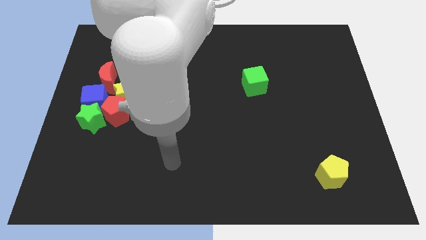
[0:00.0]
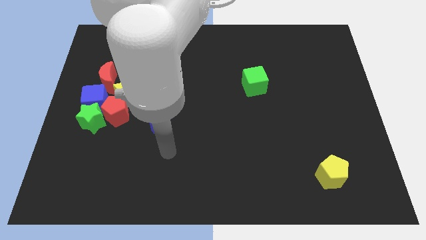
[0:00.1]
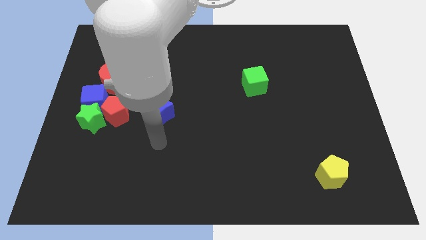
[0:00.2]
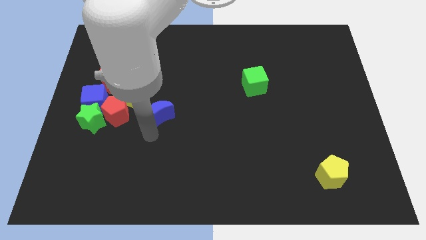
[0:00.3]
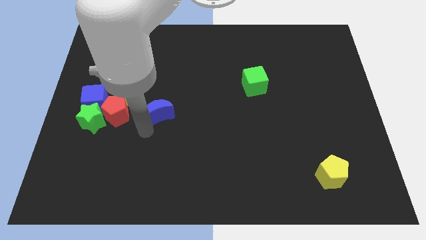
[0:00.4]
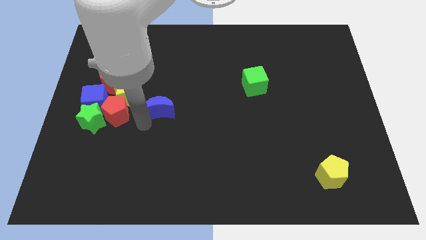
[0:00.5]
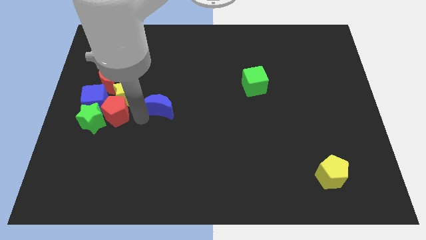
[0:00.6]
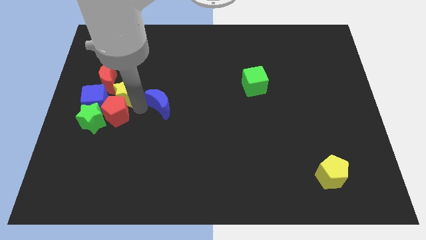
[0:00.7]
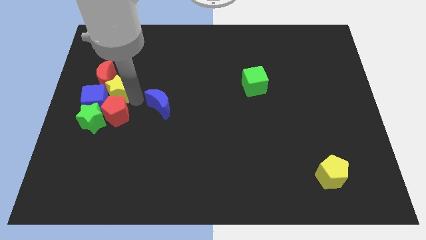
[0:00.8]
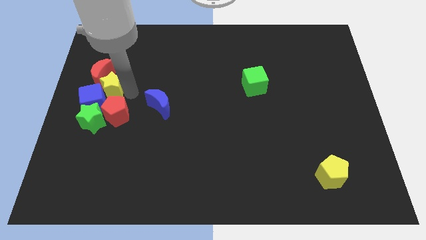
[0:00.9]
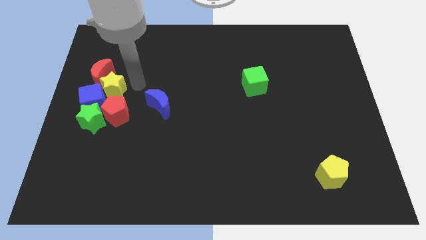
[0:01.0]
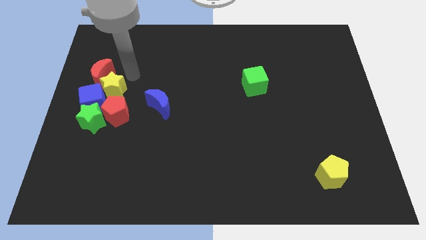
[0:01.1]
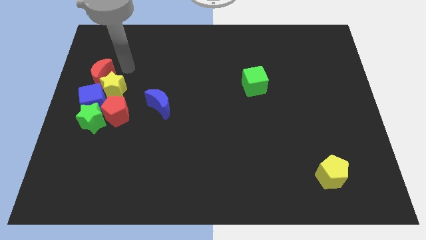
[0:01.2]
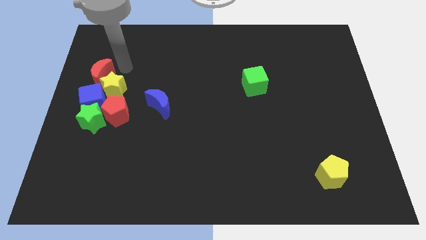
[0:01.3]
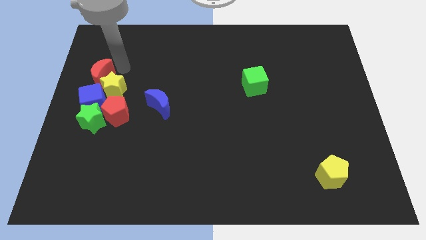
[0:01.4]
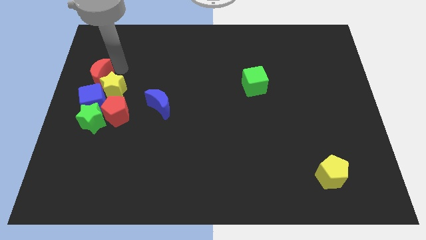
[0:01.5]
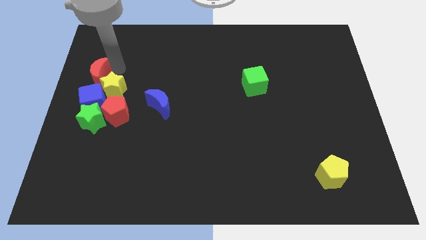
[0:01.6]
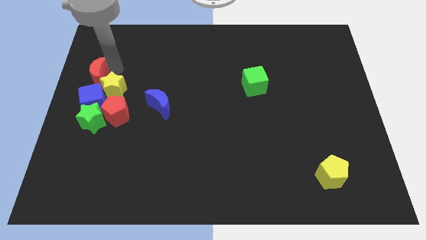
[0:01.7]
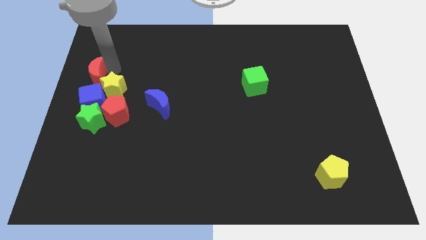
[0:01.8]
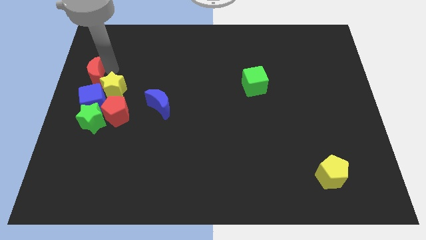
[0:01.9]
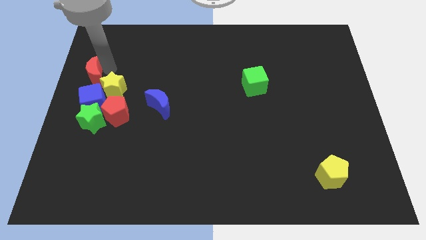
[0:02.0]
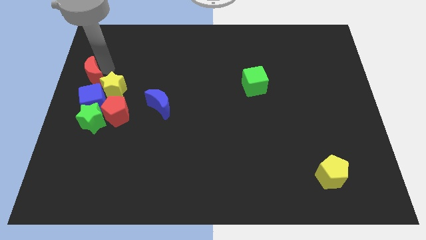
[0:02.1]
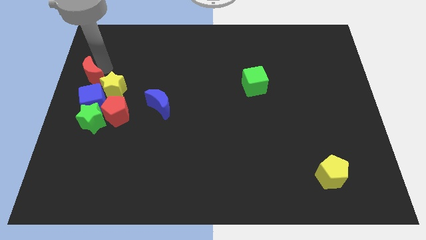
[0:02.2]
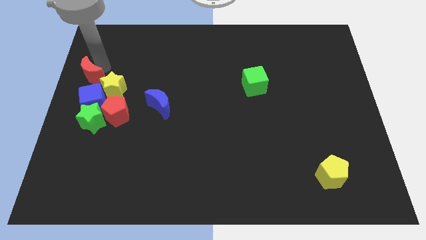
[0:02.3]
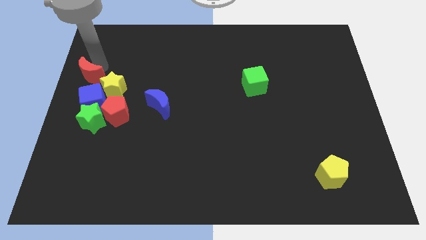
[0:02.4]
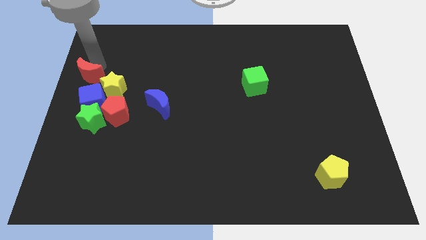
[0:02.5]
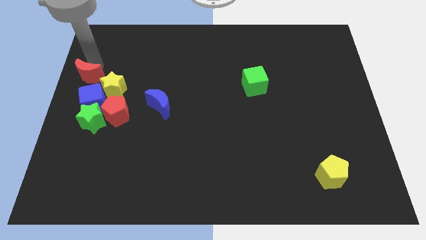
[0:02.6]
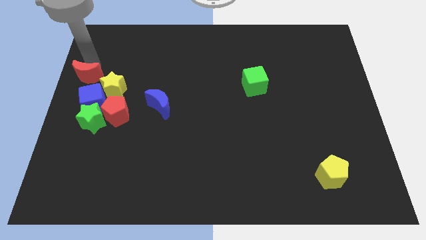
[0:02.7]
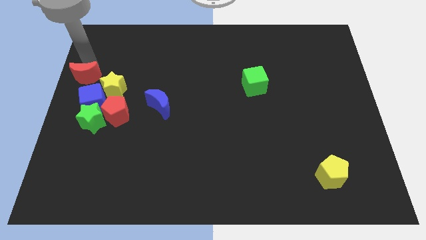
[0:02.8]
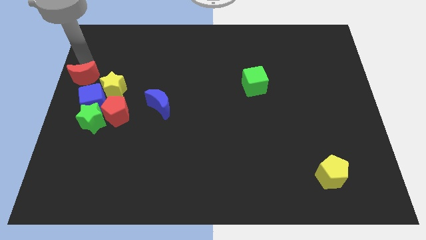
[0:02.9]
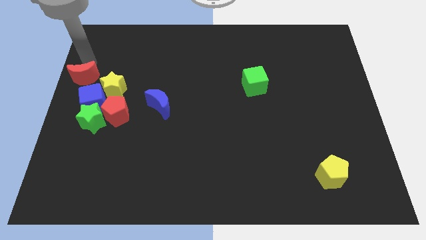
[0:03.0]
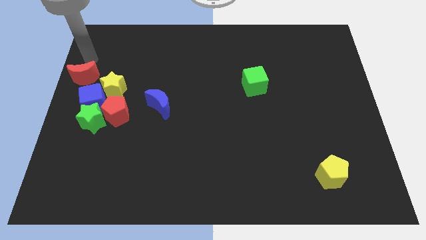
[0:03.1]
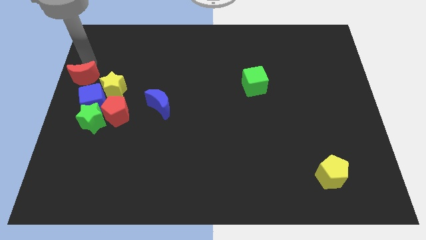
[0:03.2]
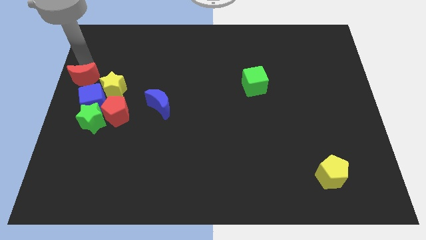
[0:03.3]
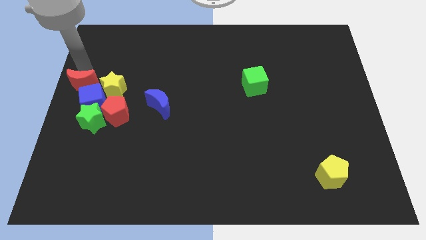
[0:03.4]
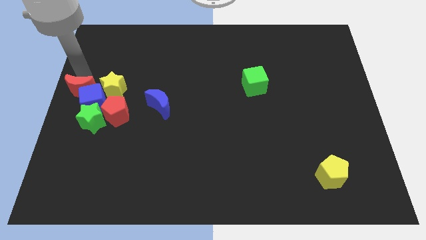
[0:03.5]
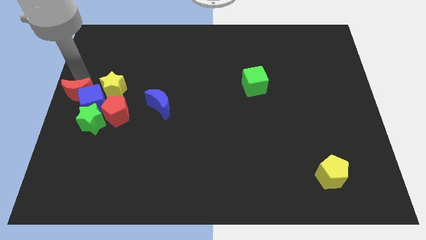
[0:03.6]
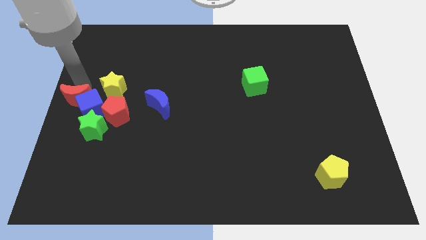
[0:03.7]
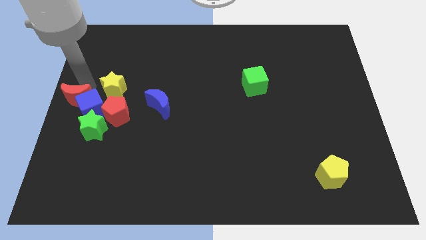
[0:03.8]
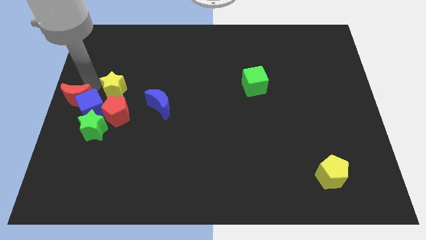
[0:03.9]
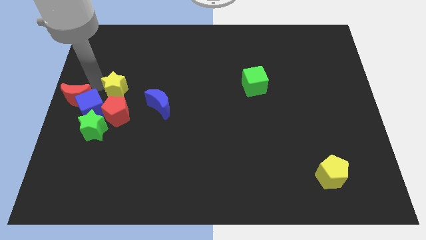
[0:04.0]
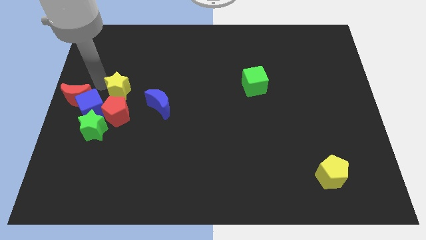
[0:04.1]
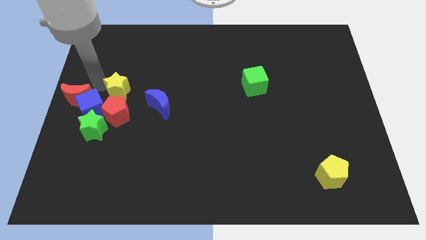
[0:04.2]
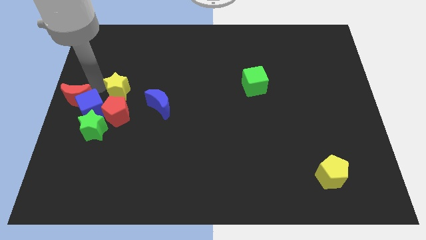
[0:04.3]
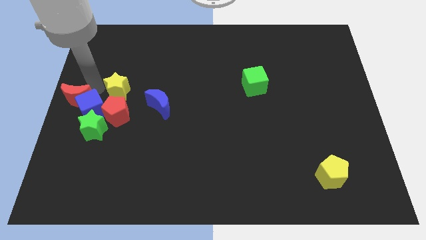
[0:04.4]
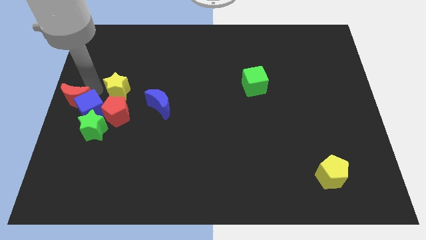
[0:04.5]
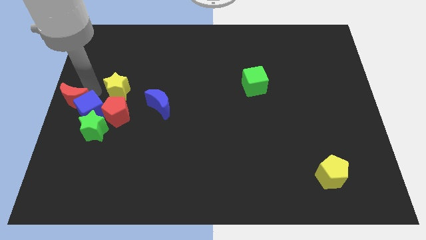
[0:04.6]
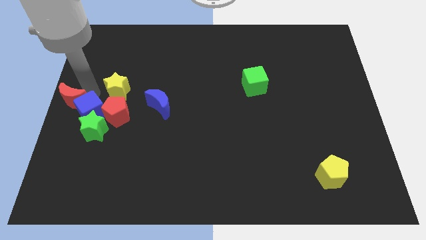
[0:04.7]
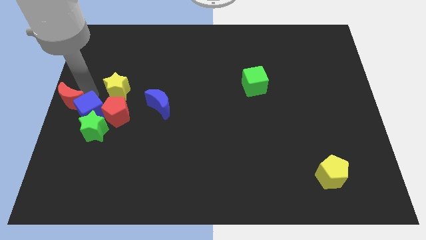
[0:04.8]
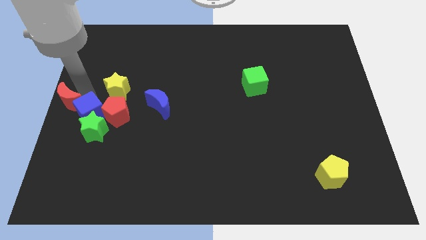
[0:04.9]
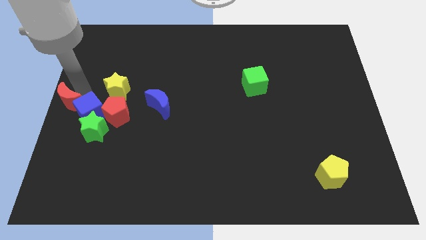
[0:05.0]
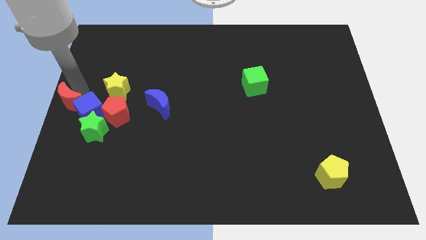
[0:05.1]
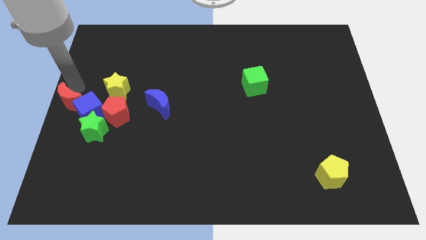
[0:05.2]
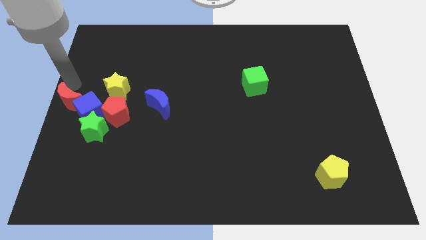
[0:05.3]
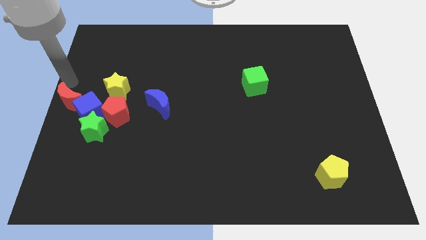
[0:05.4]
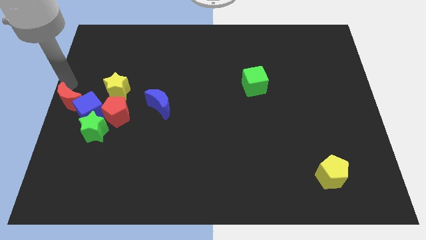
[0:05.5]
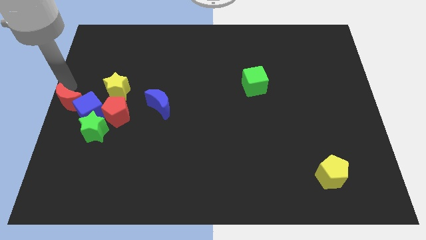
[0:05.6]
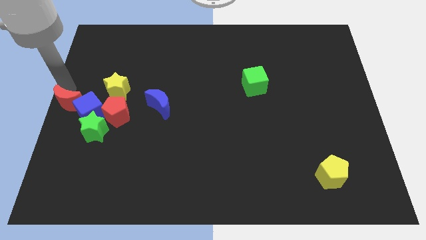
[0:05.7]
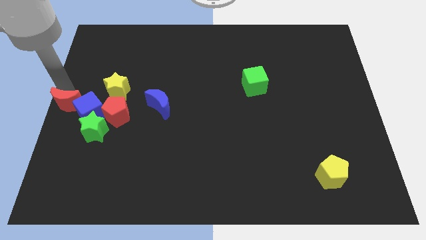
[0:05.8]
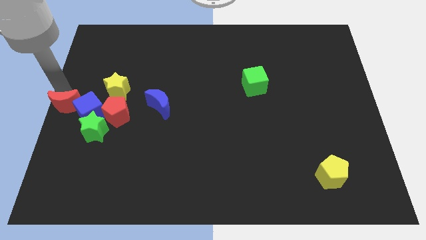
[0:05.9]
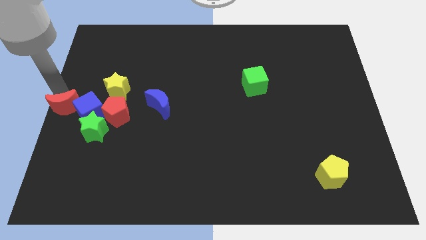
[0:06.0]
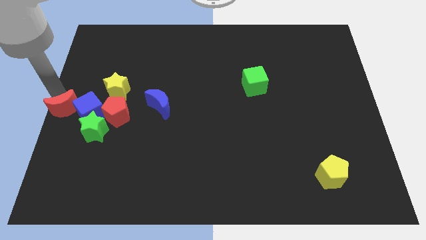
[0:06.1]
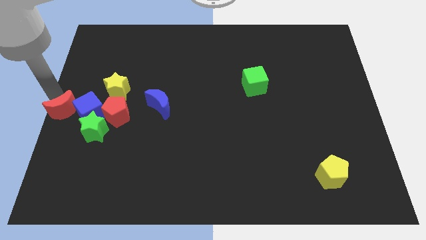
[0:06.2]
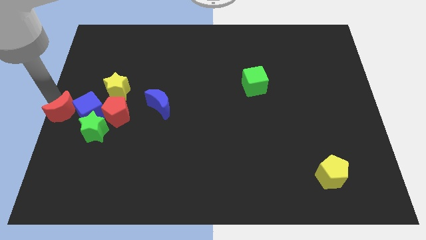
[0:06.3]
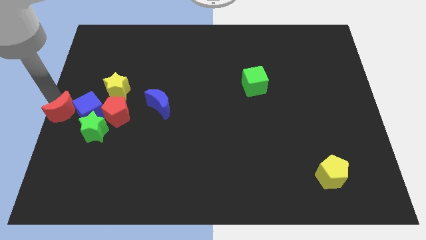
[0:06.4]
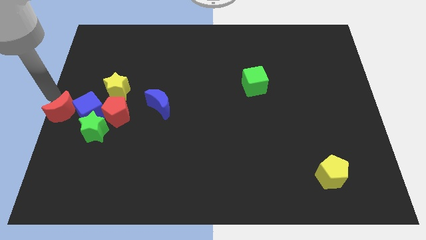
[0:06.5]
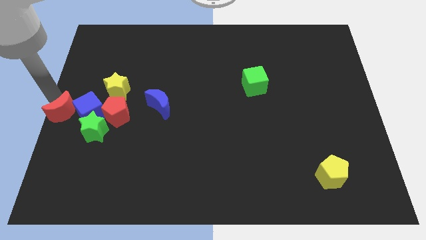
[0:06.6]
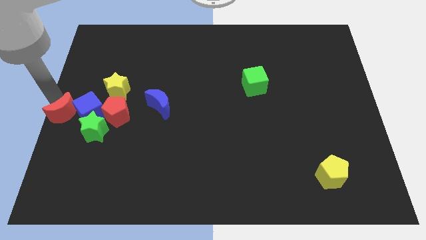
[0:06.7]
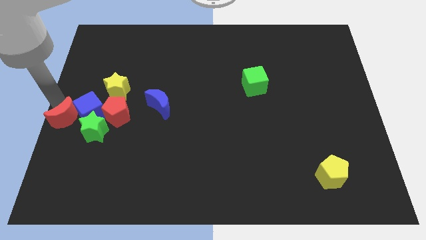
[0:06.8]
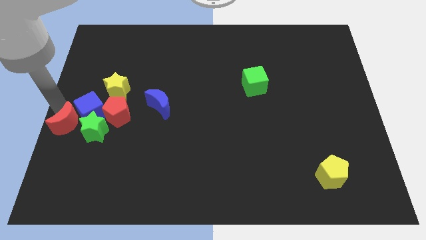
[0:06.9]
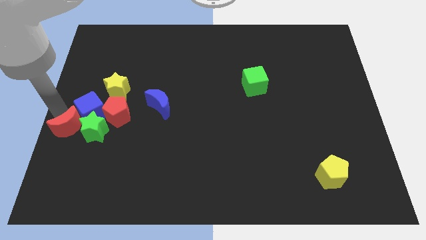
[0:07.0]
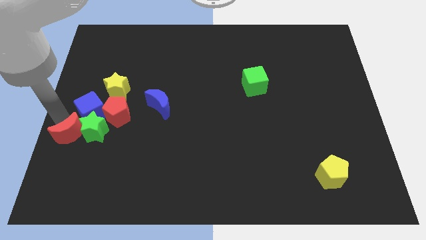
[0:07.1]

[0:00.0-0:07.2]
move the red moon to the bottom left of the red pentagon
